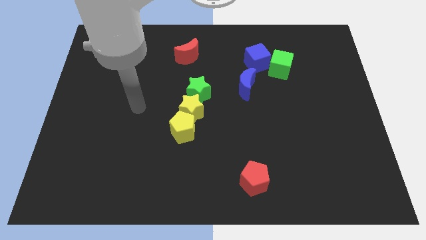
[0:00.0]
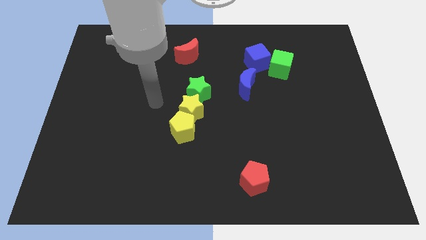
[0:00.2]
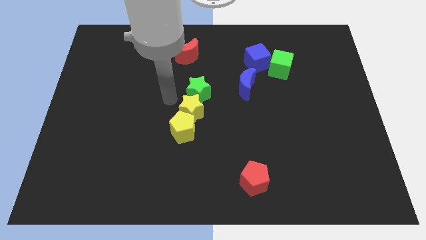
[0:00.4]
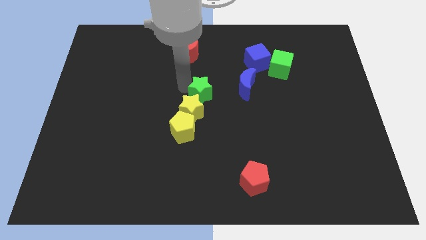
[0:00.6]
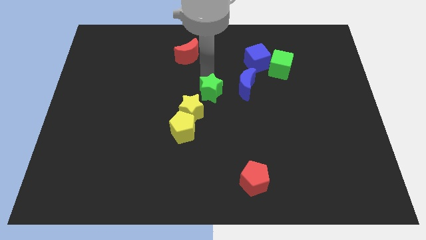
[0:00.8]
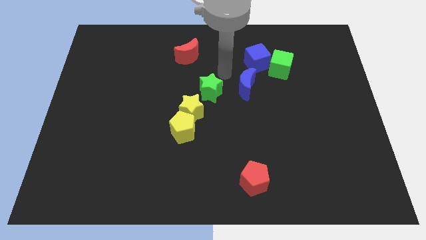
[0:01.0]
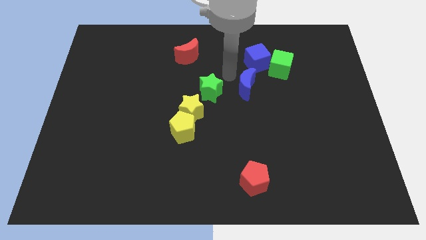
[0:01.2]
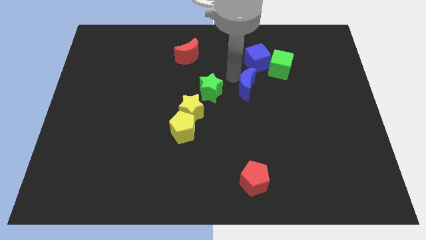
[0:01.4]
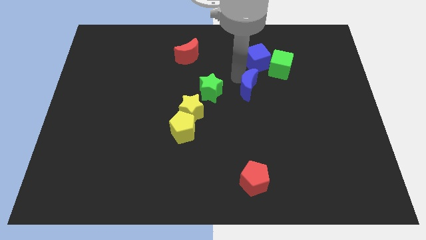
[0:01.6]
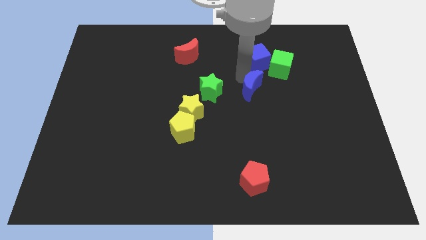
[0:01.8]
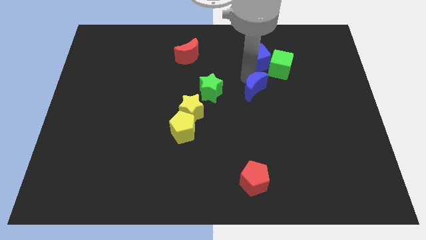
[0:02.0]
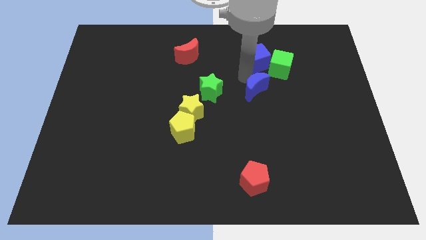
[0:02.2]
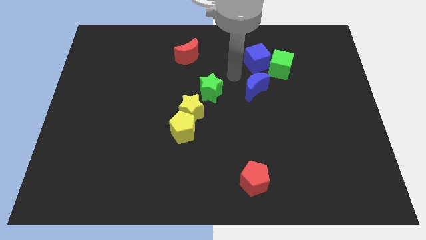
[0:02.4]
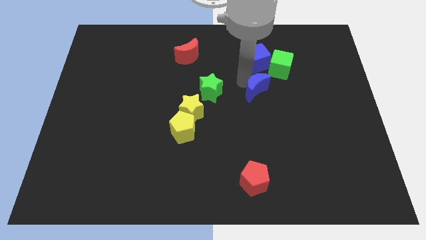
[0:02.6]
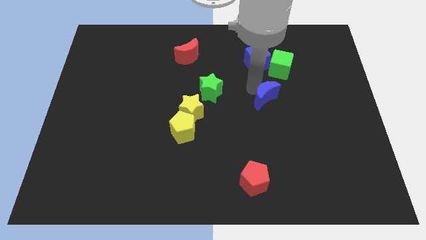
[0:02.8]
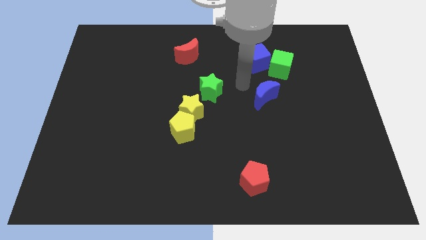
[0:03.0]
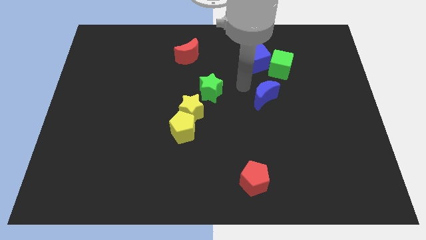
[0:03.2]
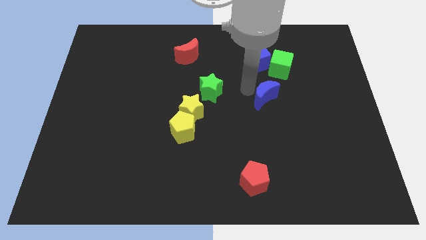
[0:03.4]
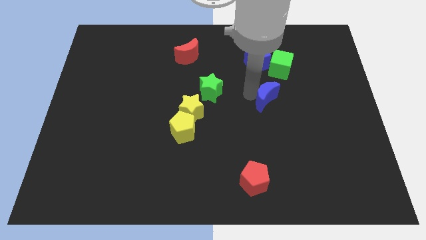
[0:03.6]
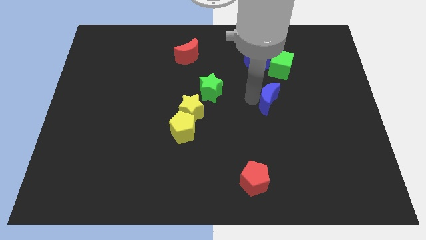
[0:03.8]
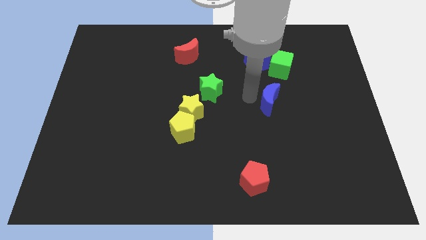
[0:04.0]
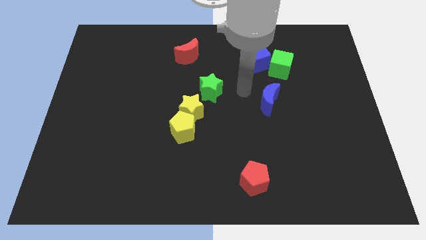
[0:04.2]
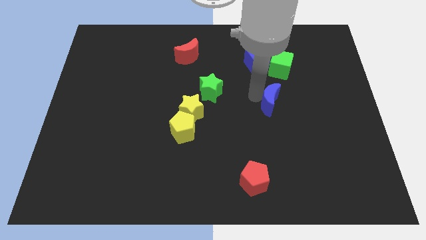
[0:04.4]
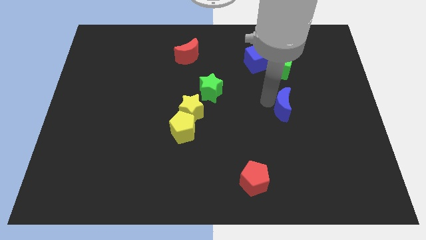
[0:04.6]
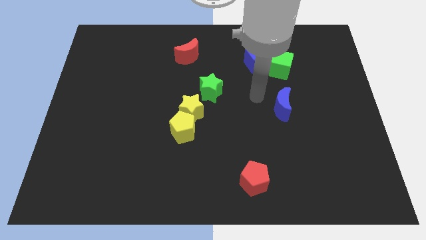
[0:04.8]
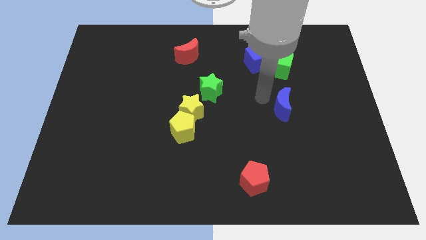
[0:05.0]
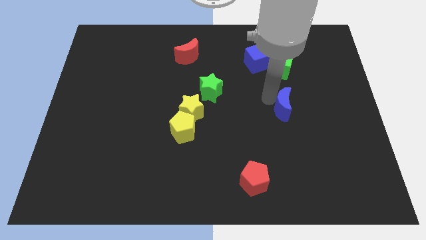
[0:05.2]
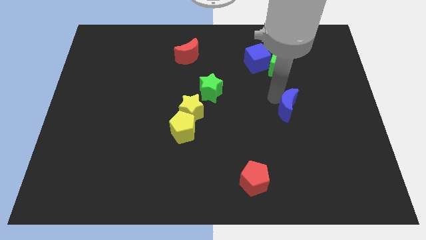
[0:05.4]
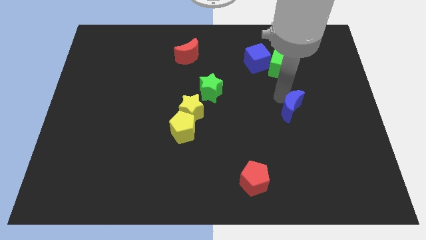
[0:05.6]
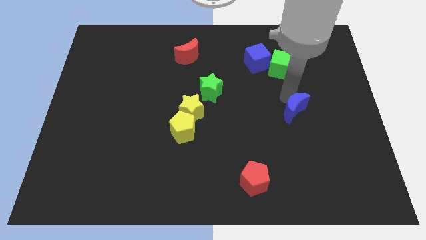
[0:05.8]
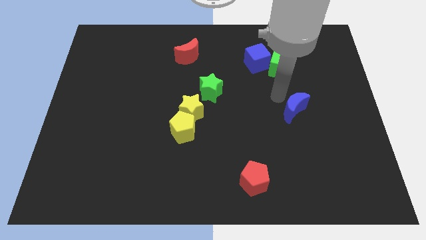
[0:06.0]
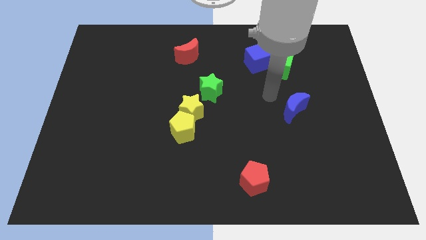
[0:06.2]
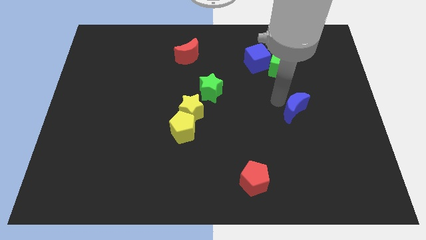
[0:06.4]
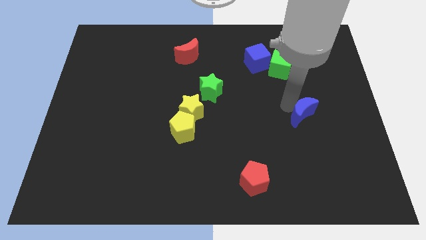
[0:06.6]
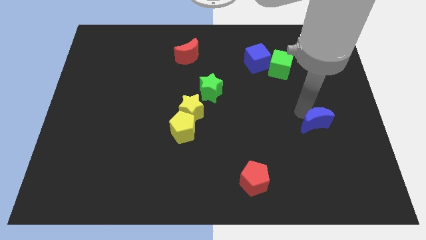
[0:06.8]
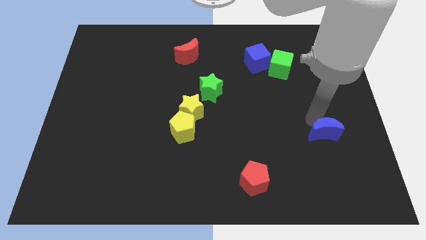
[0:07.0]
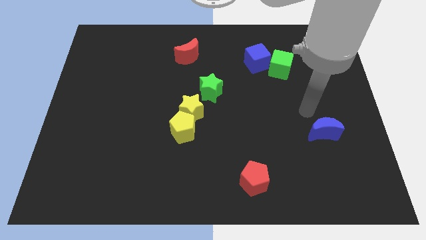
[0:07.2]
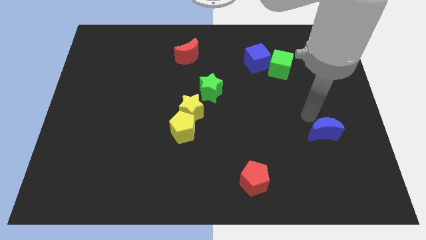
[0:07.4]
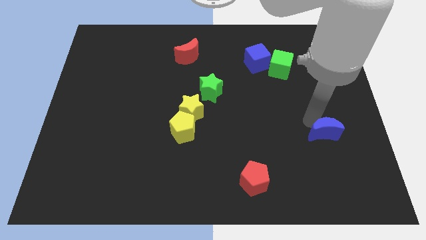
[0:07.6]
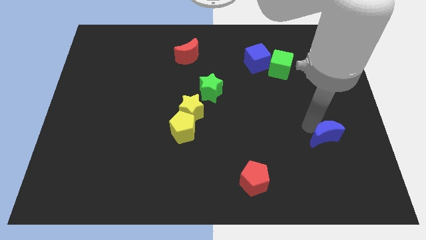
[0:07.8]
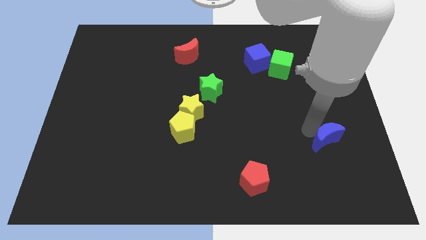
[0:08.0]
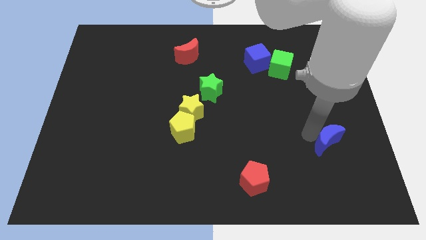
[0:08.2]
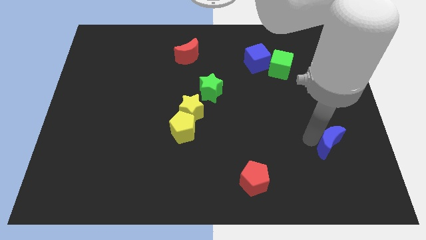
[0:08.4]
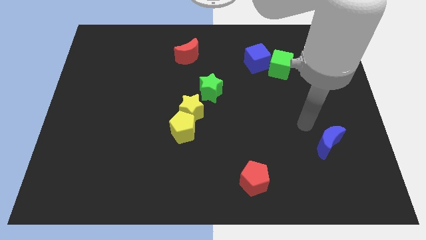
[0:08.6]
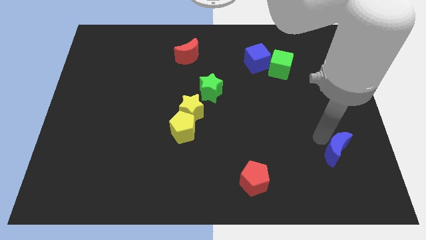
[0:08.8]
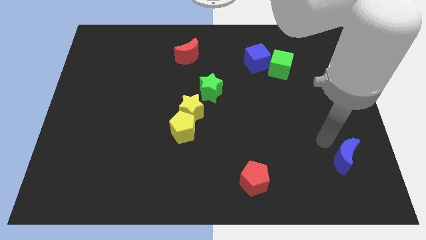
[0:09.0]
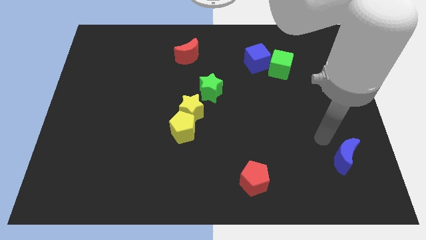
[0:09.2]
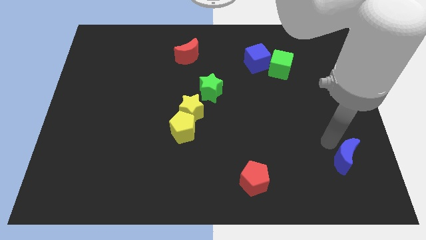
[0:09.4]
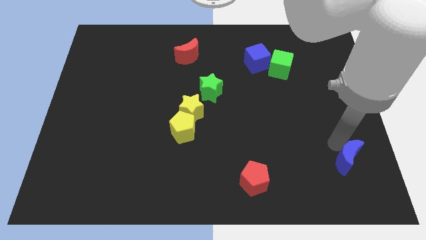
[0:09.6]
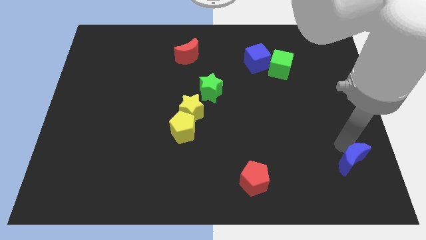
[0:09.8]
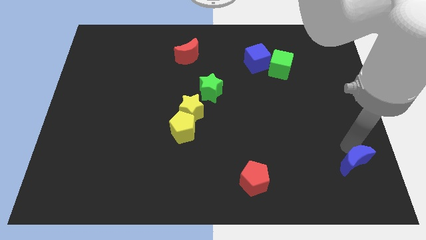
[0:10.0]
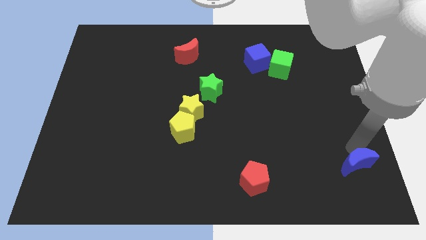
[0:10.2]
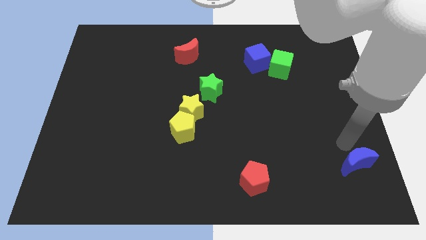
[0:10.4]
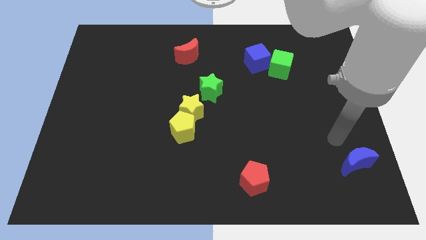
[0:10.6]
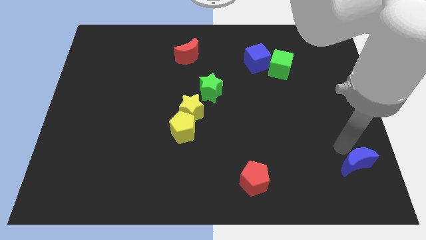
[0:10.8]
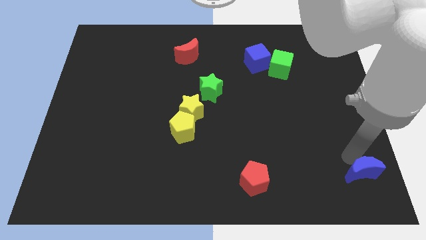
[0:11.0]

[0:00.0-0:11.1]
put the blue moon to the bottom right corner
